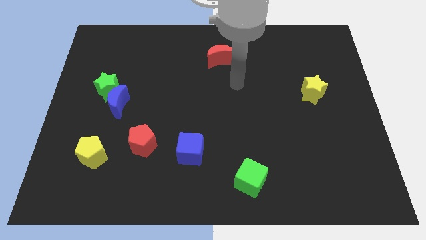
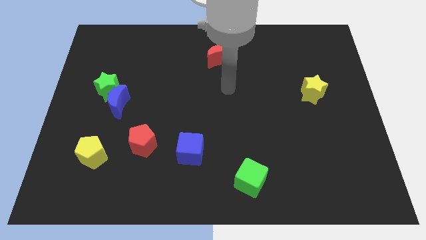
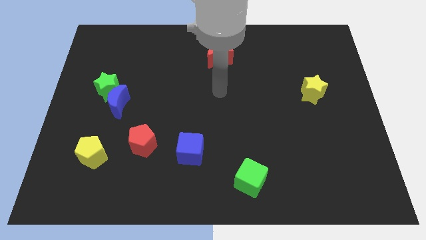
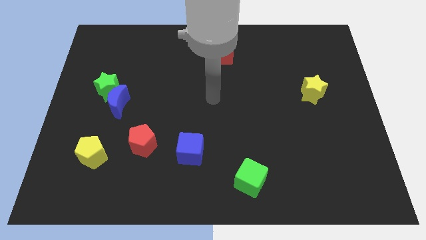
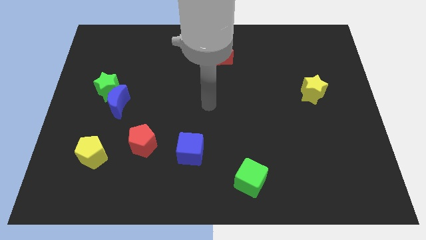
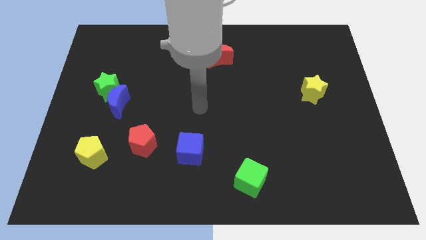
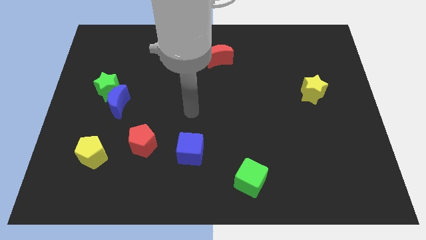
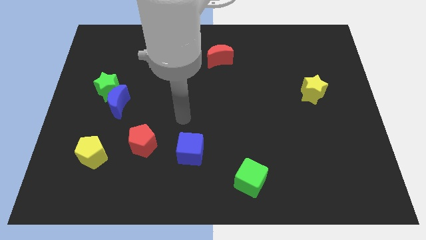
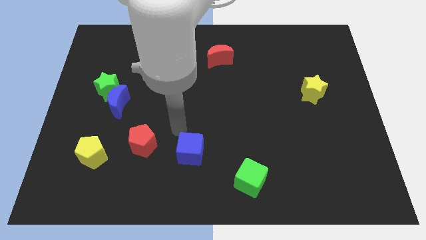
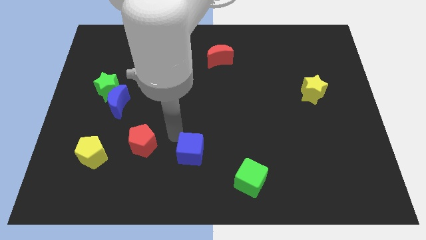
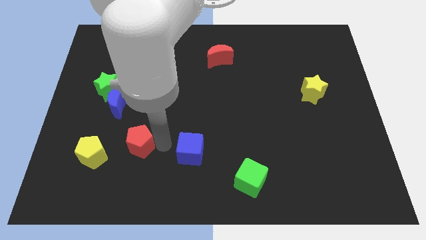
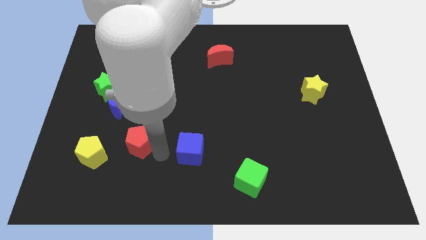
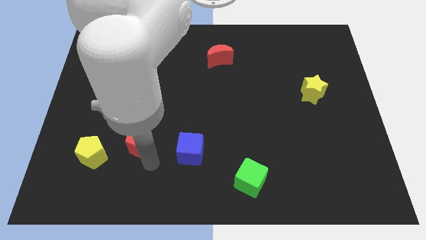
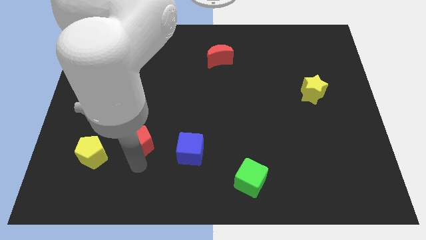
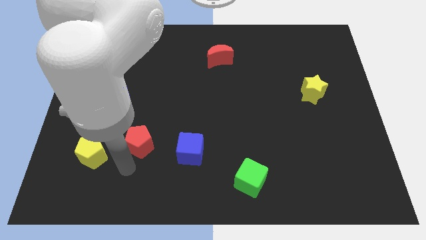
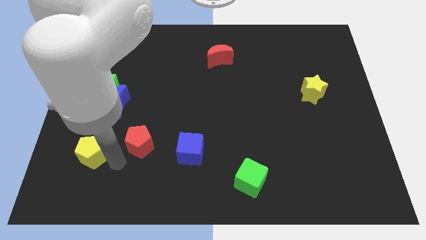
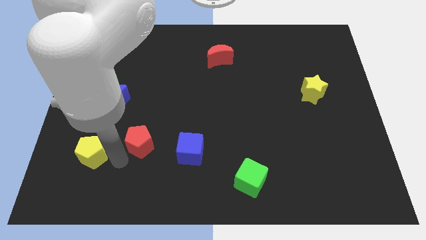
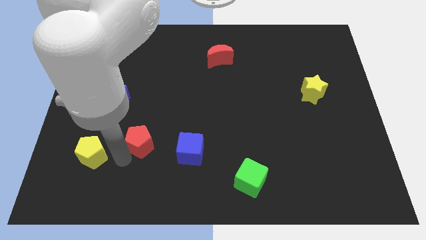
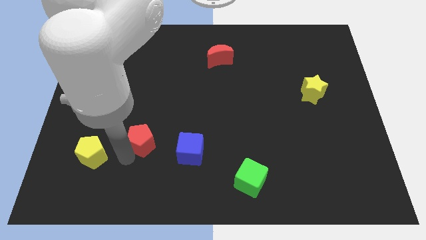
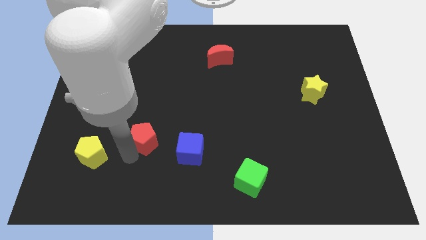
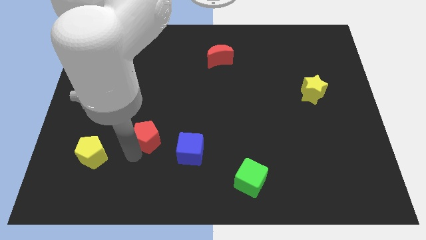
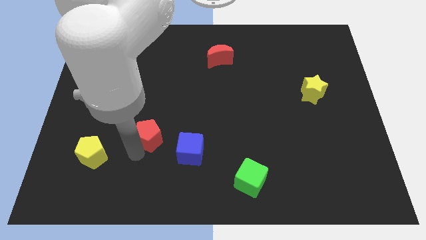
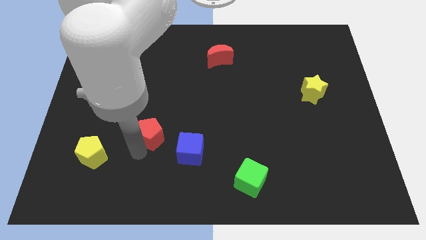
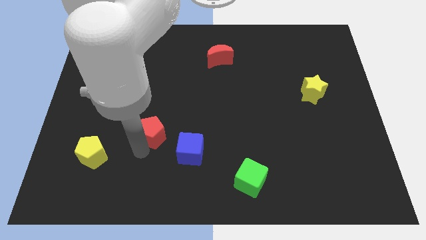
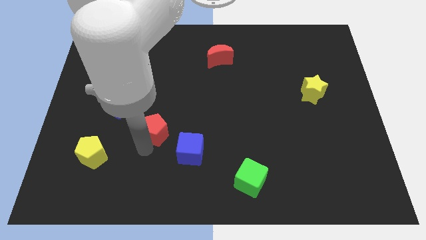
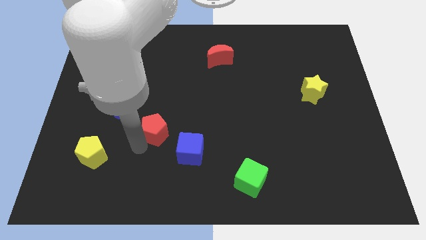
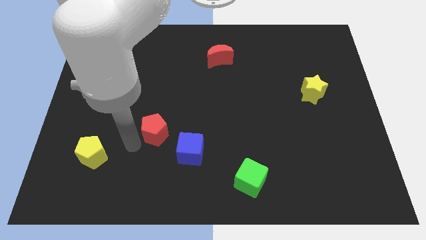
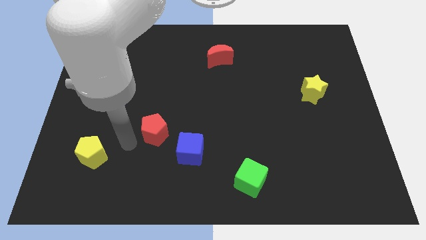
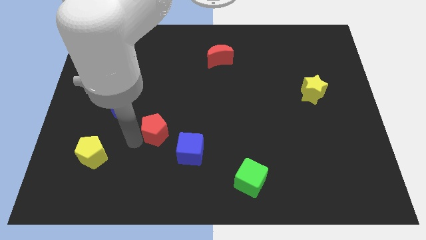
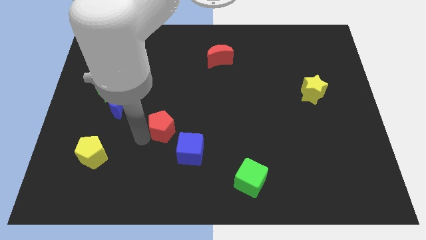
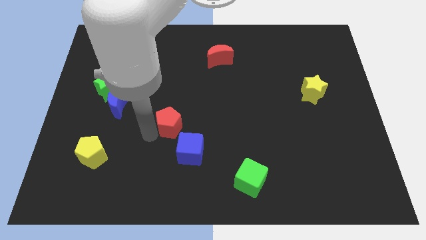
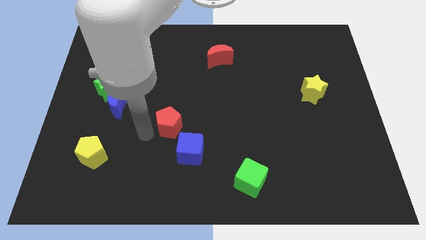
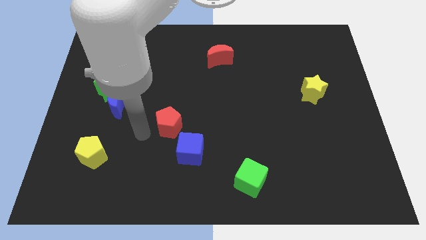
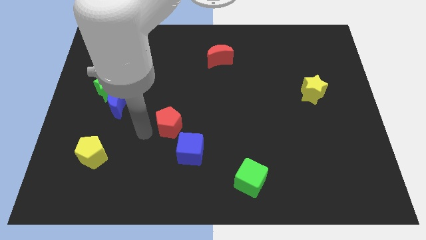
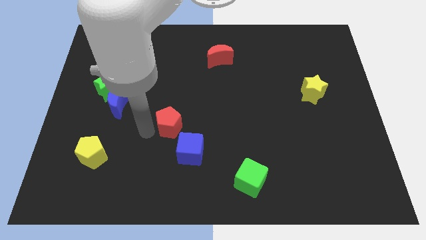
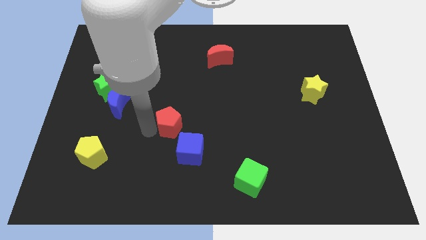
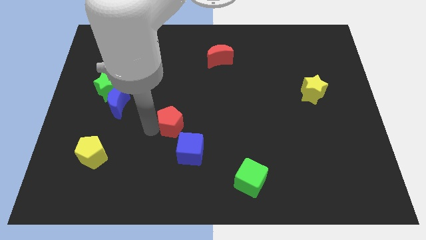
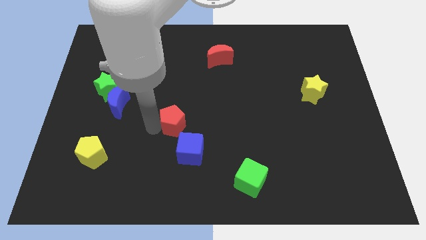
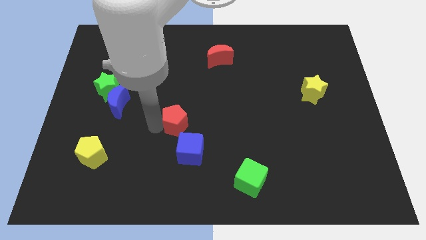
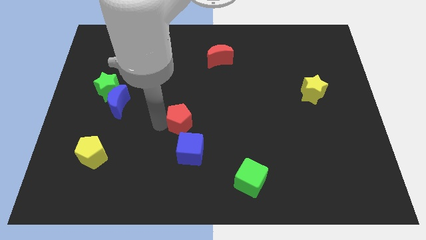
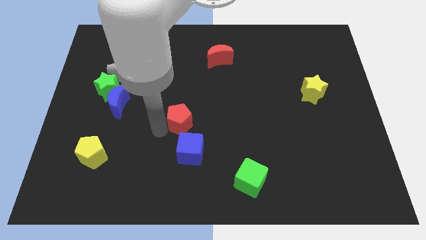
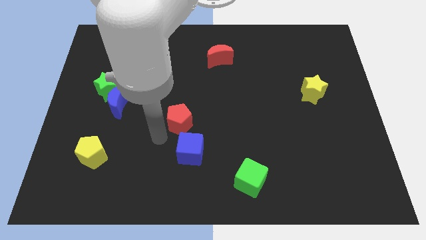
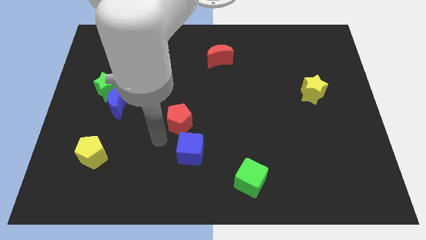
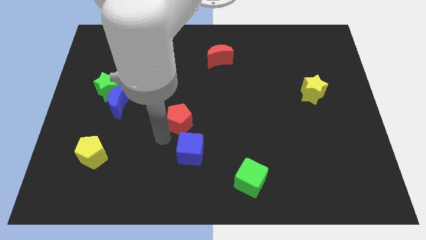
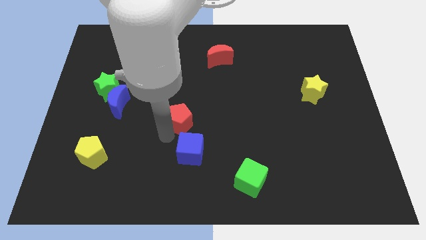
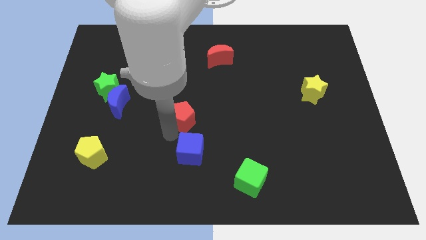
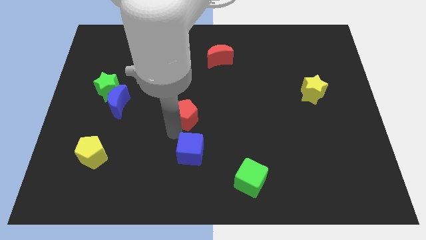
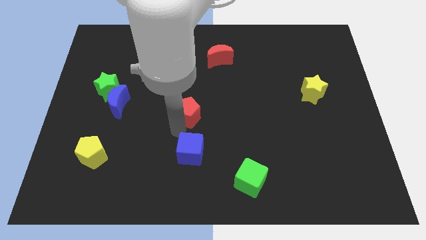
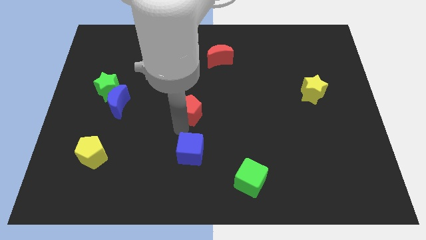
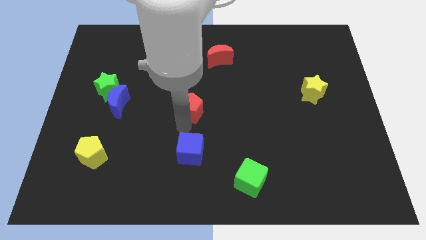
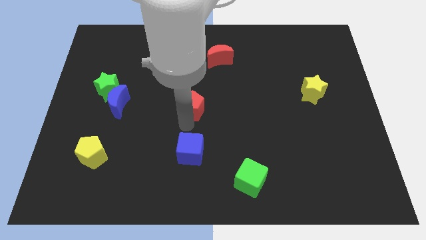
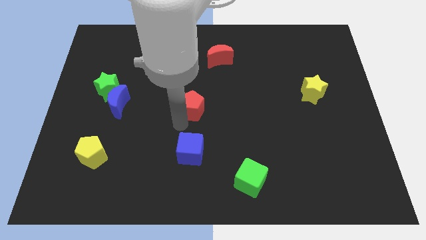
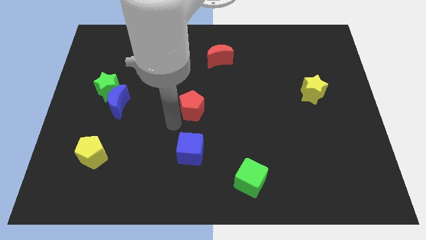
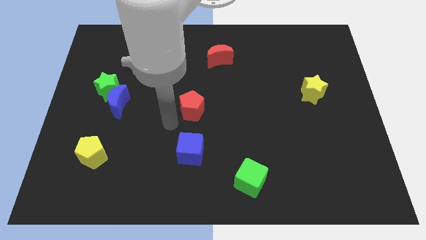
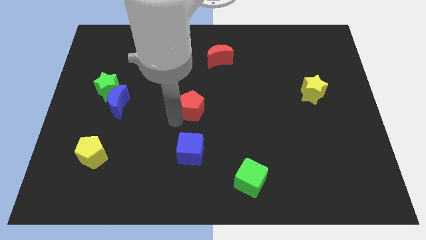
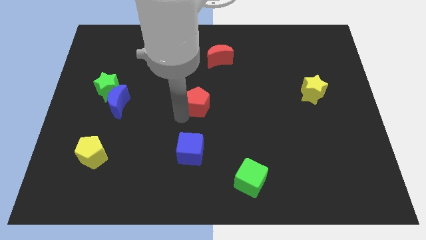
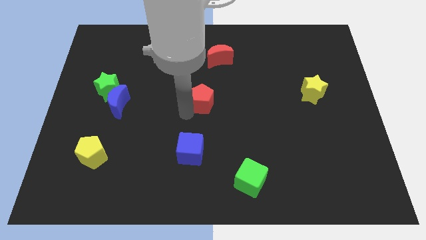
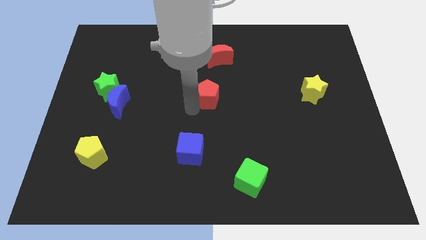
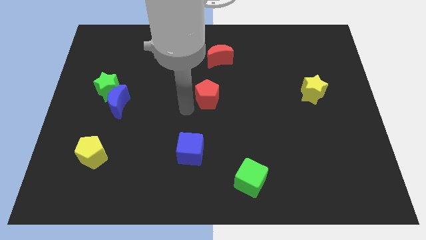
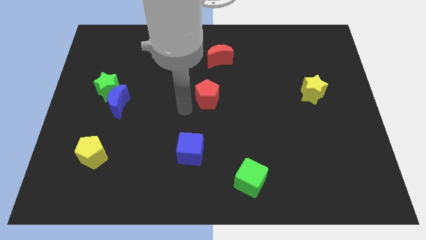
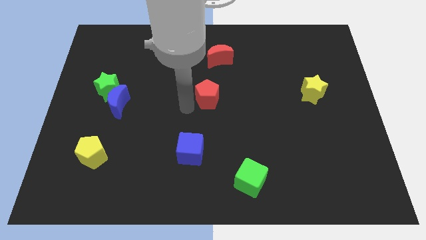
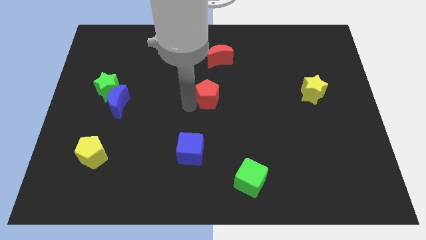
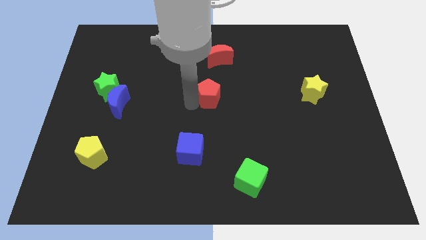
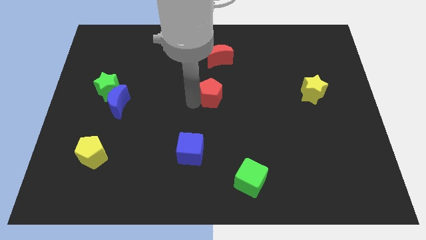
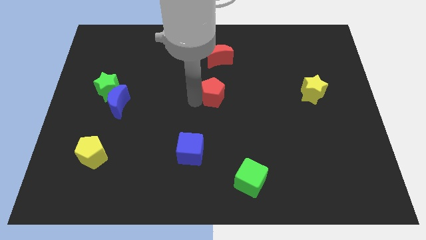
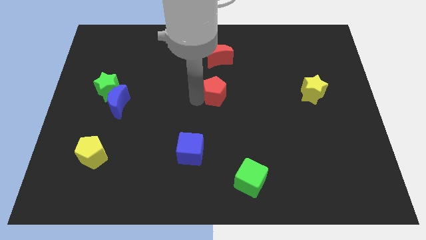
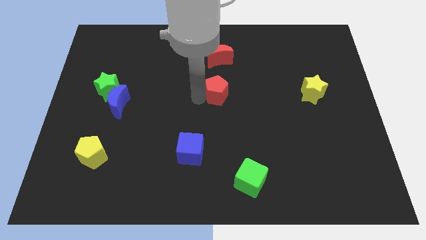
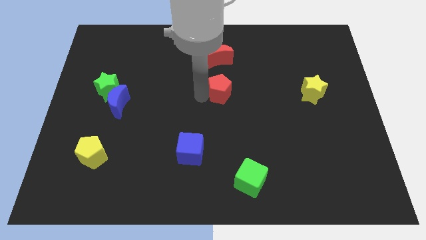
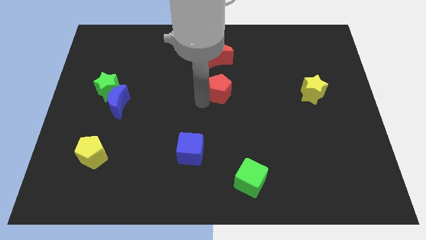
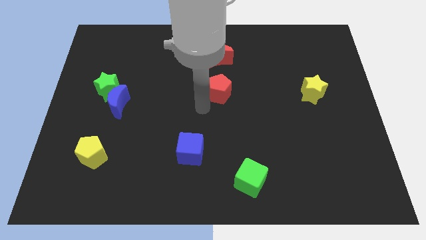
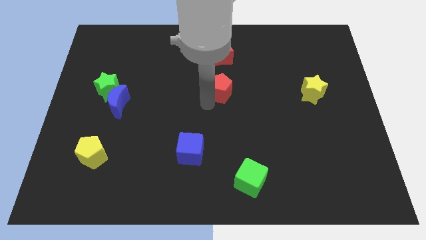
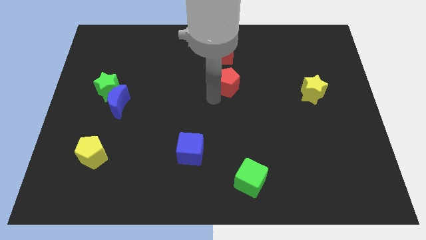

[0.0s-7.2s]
slide the red pentagon to the bottom right of the red moon

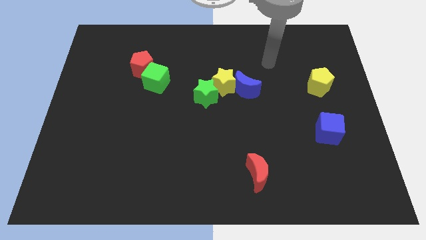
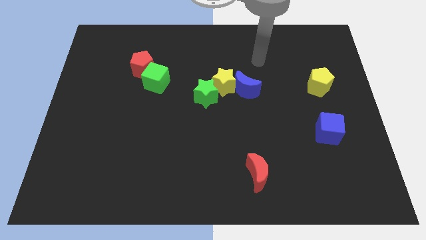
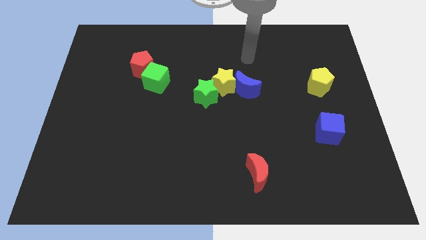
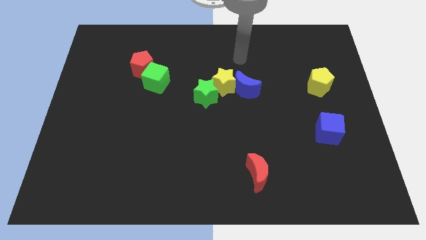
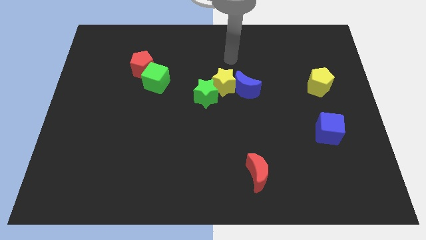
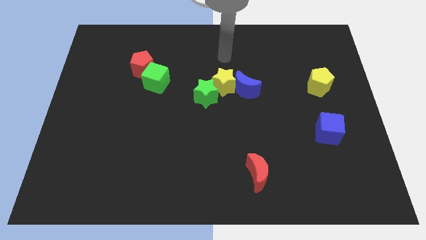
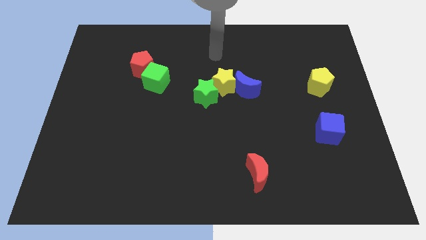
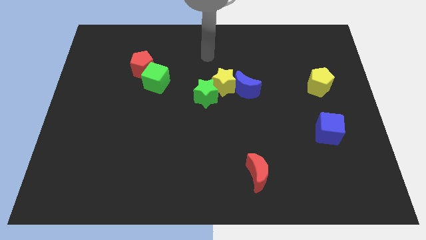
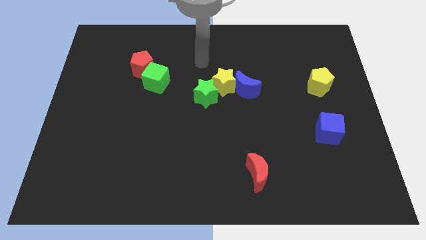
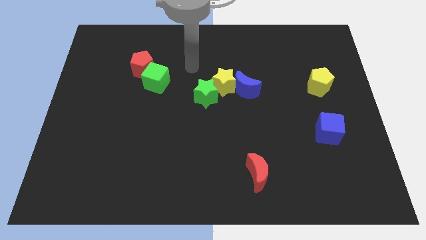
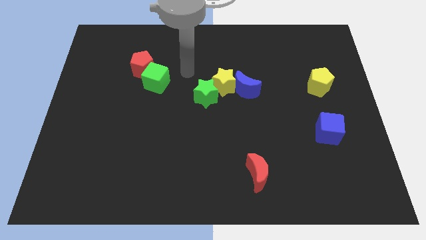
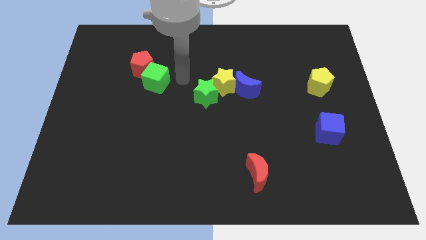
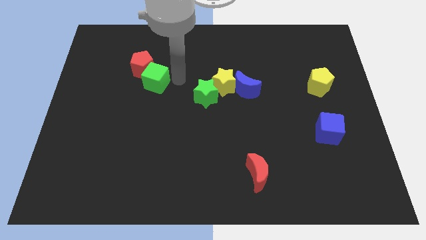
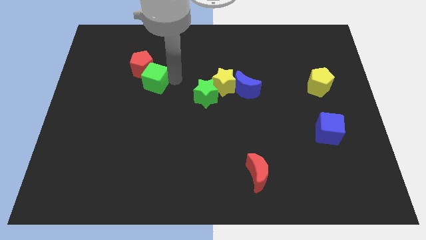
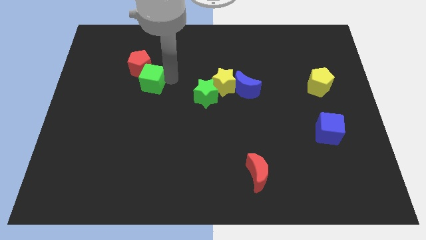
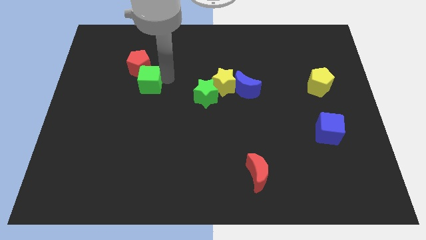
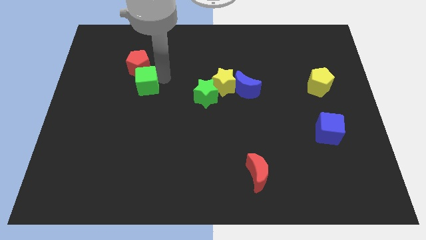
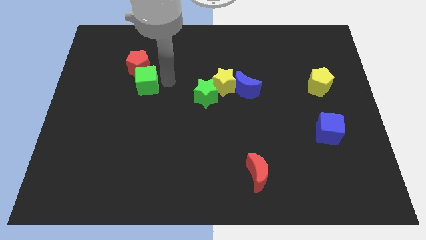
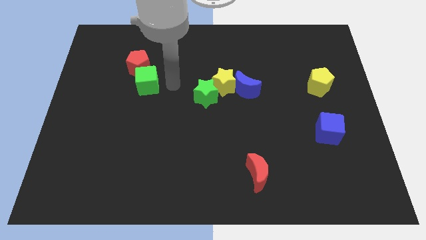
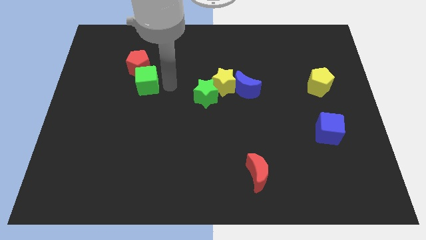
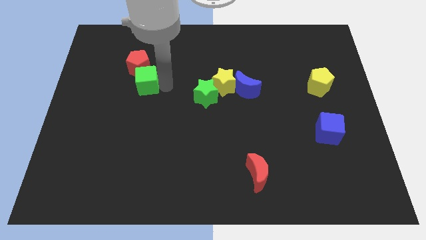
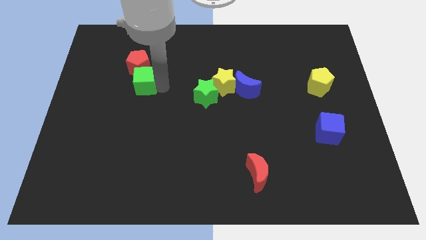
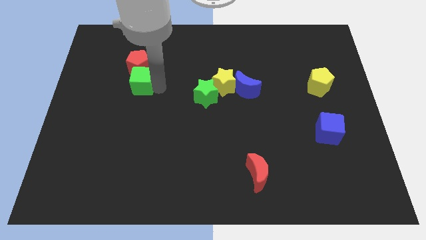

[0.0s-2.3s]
push the green cube to the bottom left of the red pentagon
